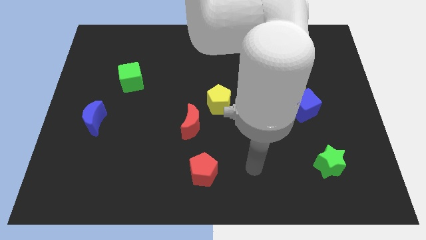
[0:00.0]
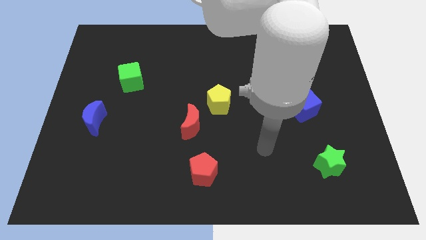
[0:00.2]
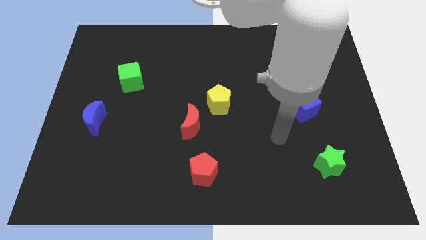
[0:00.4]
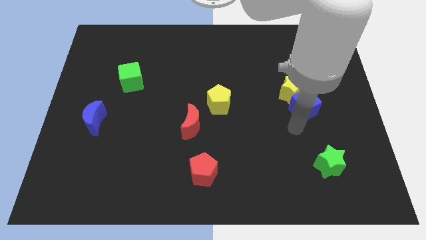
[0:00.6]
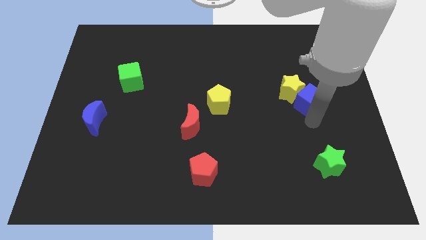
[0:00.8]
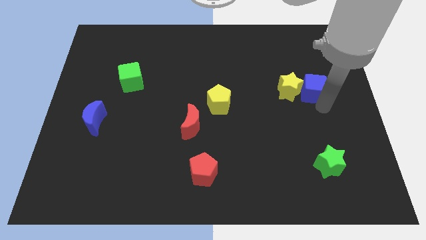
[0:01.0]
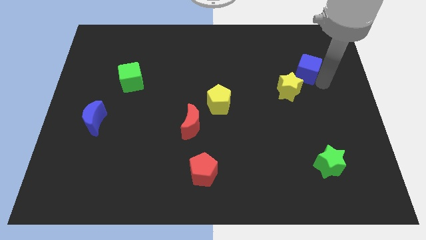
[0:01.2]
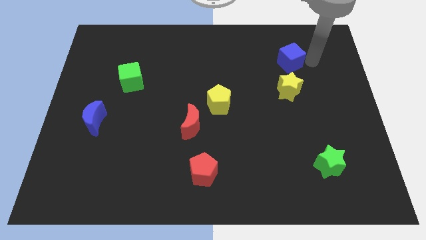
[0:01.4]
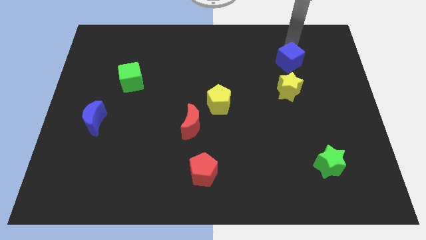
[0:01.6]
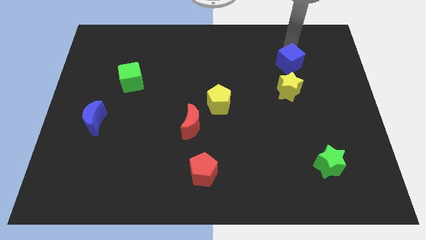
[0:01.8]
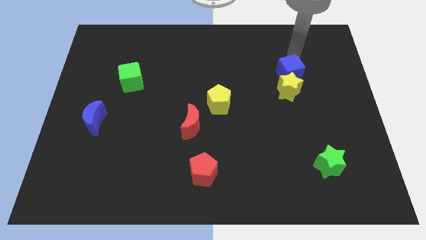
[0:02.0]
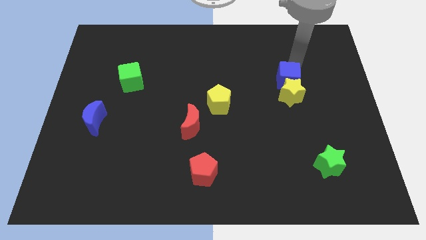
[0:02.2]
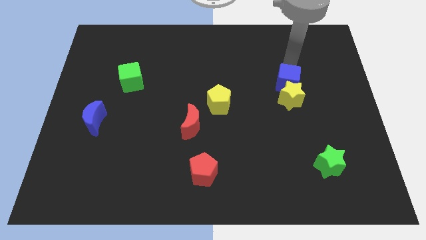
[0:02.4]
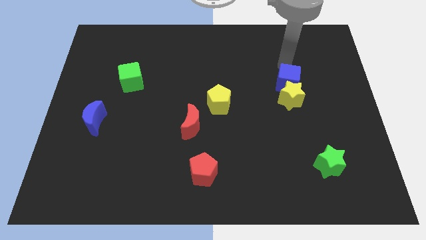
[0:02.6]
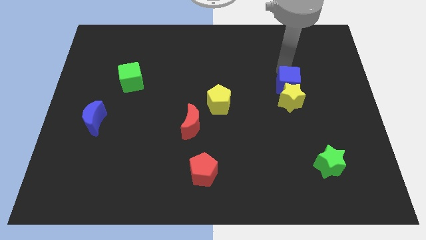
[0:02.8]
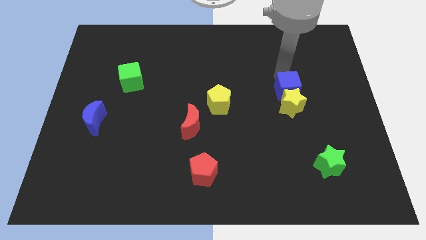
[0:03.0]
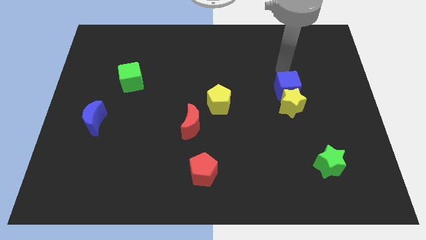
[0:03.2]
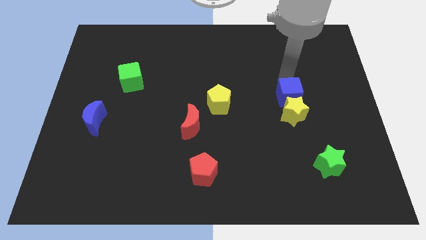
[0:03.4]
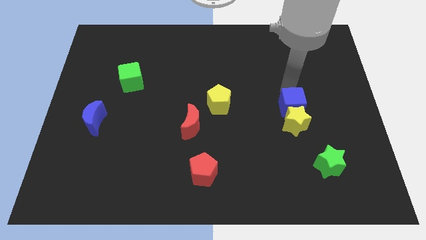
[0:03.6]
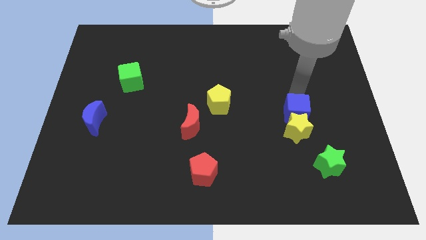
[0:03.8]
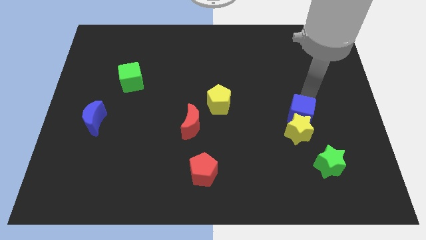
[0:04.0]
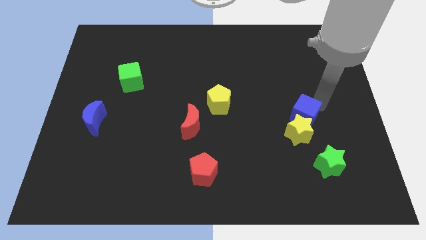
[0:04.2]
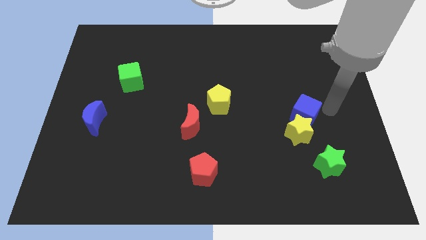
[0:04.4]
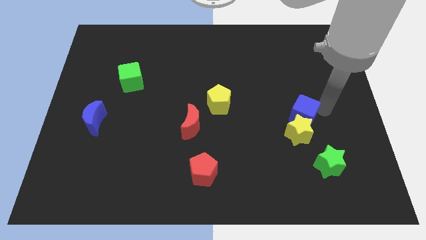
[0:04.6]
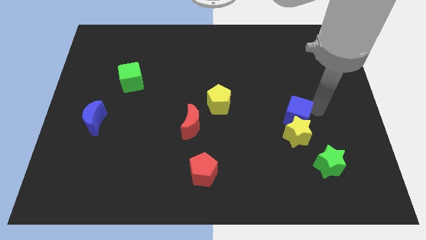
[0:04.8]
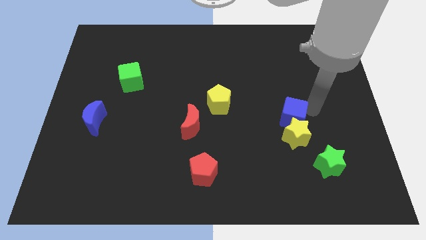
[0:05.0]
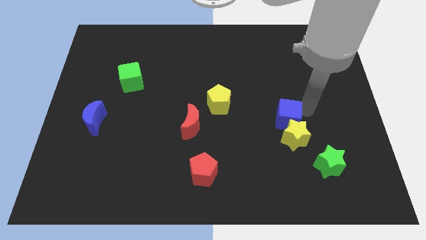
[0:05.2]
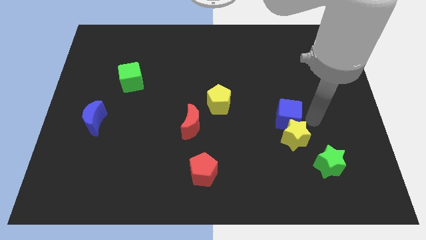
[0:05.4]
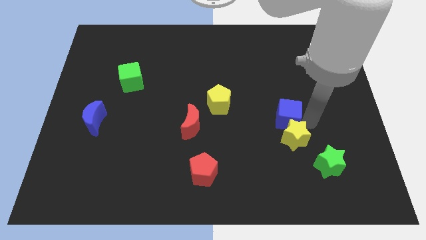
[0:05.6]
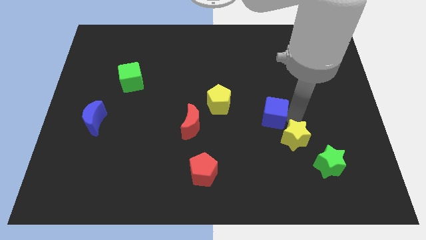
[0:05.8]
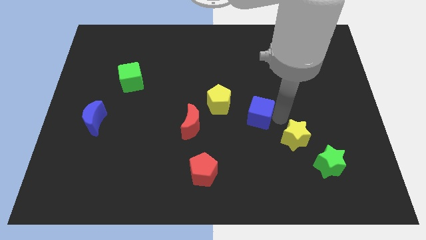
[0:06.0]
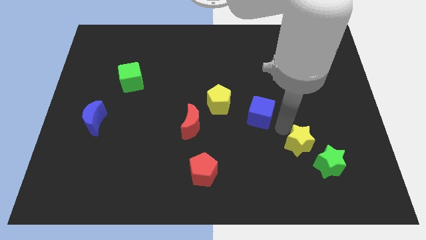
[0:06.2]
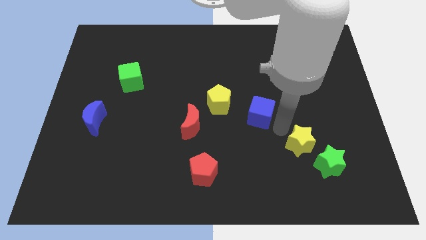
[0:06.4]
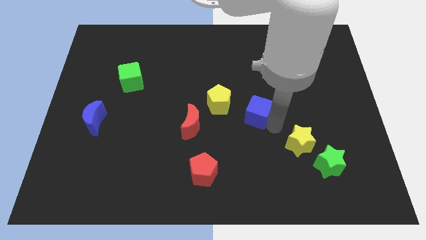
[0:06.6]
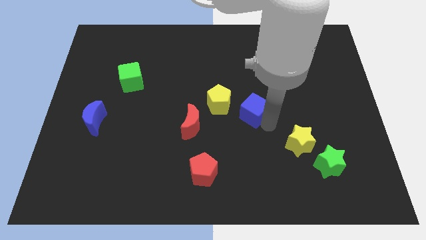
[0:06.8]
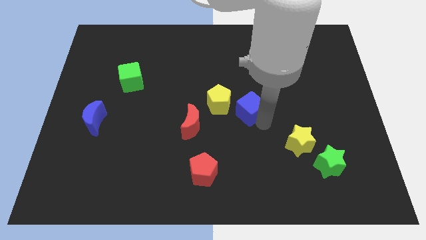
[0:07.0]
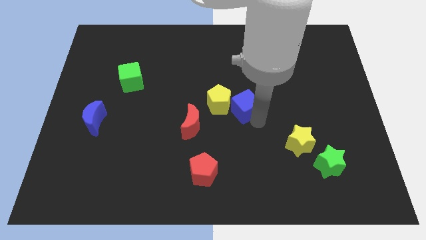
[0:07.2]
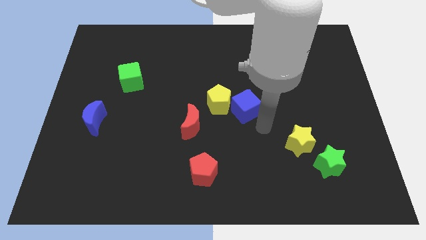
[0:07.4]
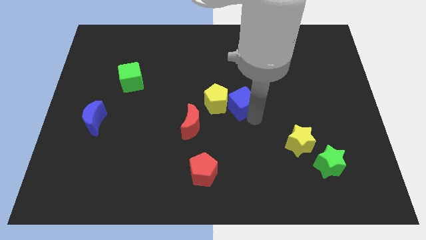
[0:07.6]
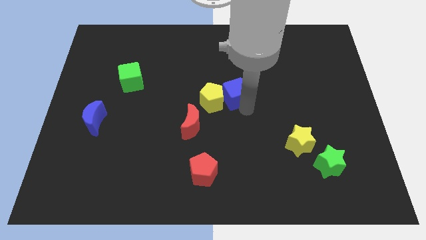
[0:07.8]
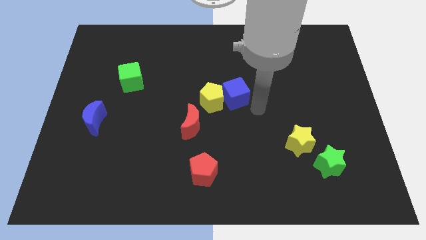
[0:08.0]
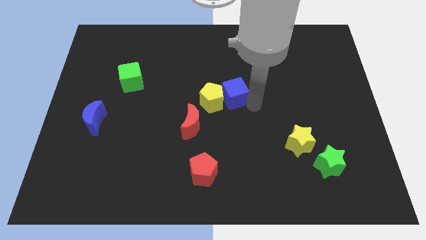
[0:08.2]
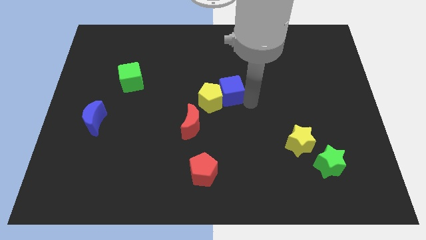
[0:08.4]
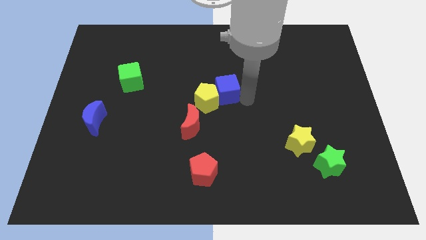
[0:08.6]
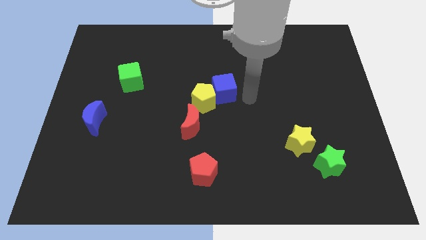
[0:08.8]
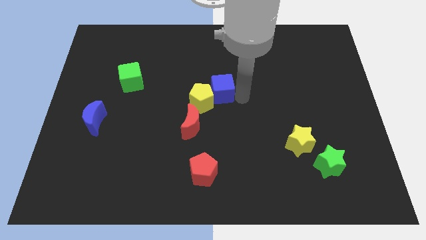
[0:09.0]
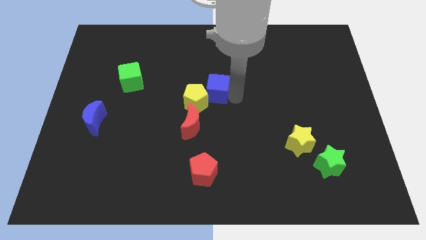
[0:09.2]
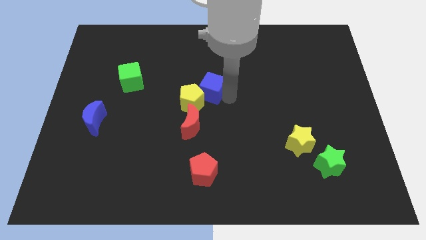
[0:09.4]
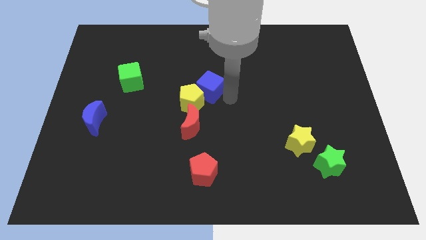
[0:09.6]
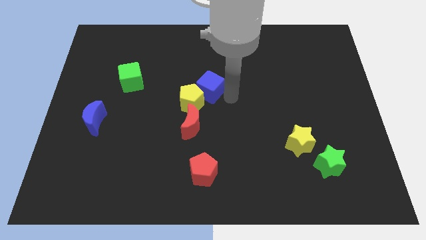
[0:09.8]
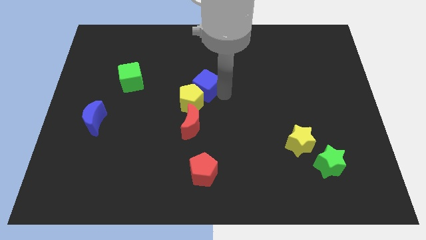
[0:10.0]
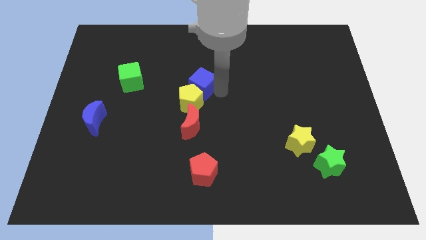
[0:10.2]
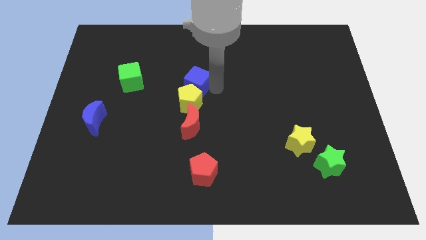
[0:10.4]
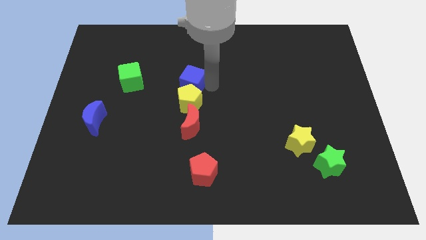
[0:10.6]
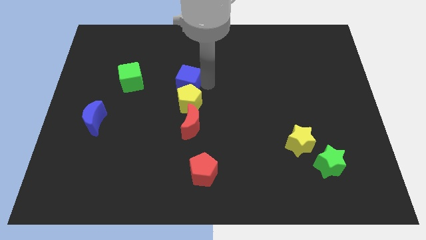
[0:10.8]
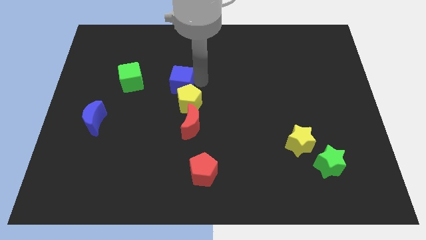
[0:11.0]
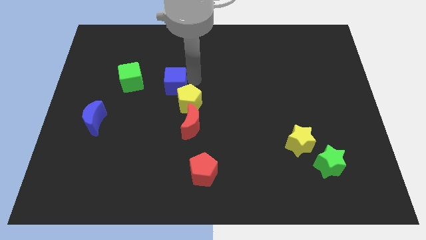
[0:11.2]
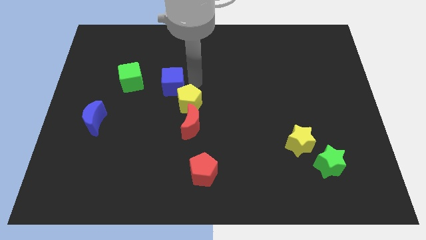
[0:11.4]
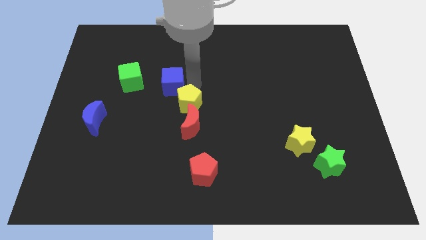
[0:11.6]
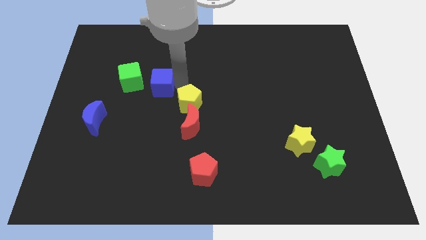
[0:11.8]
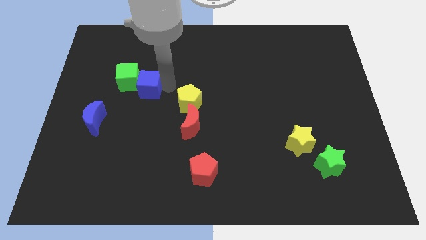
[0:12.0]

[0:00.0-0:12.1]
slide the blue cube close to the green cube
